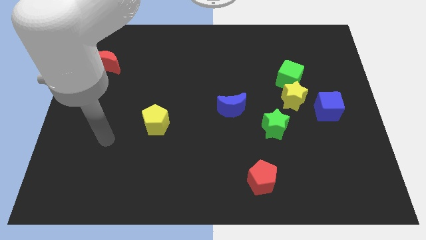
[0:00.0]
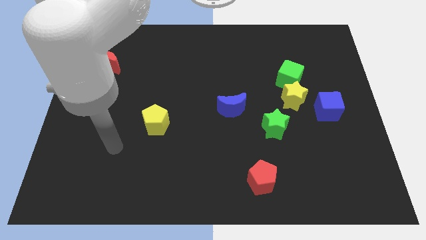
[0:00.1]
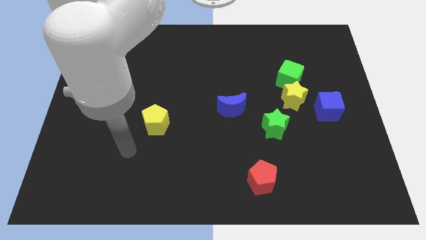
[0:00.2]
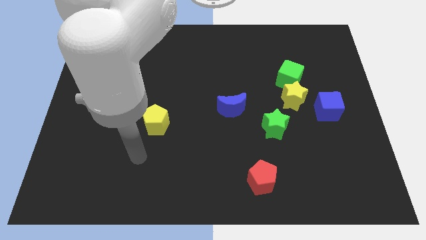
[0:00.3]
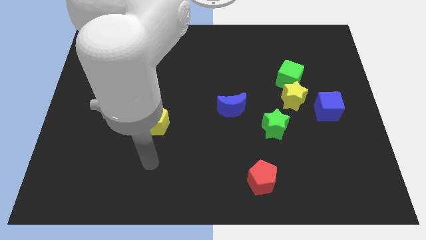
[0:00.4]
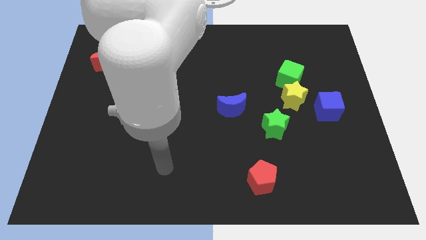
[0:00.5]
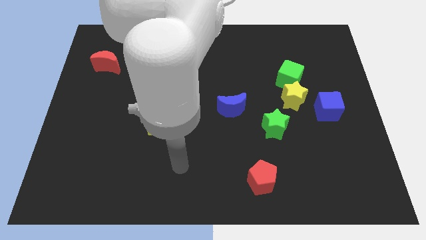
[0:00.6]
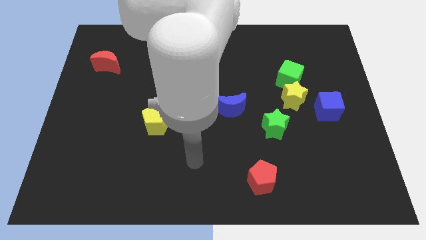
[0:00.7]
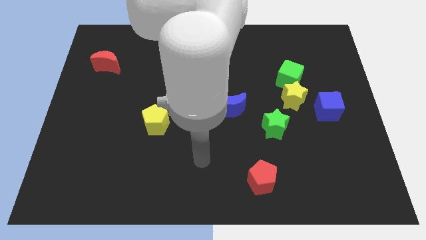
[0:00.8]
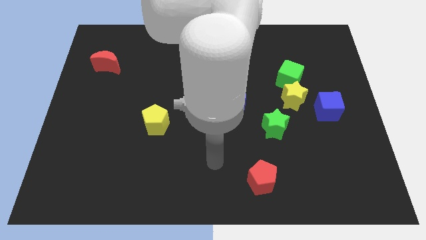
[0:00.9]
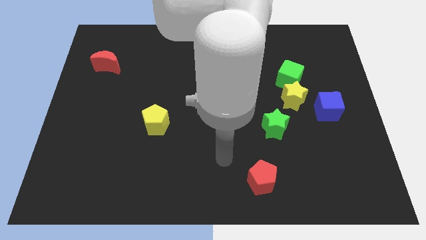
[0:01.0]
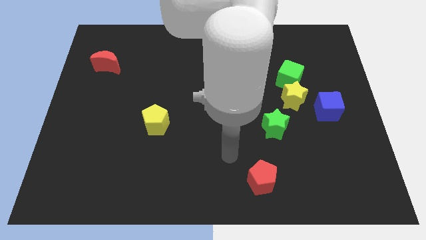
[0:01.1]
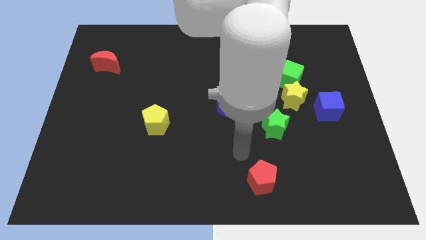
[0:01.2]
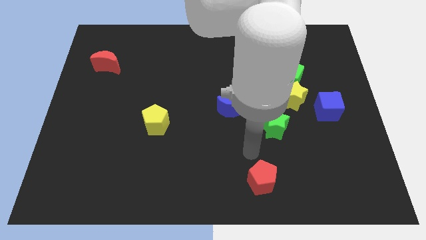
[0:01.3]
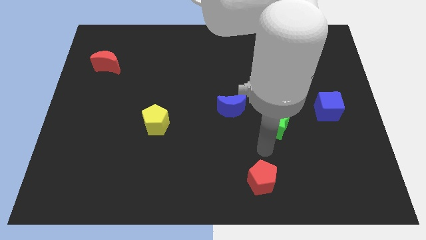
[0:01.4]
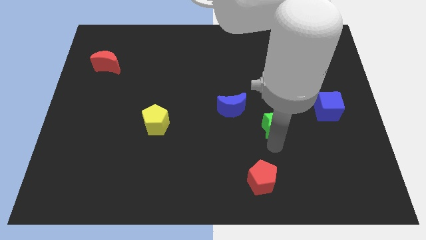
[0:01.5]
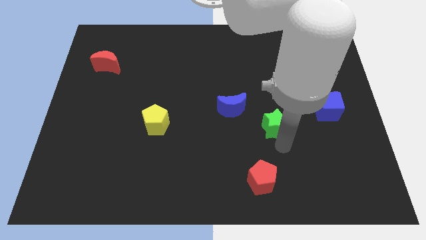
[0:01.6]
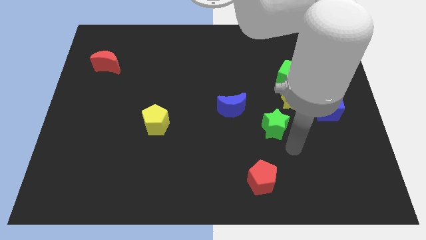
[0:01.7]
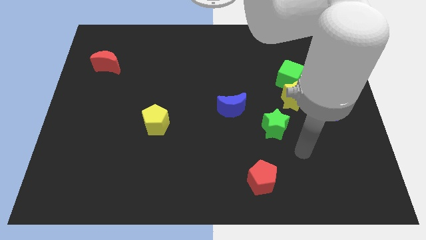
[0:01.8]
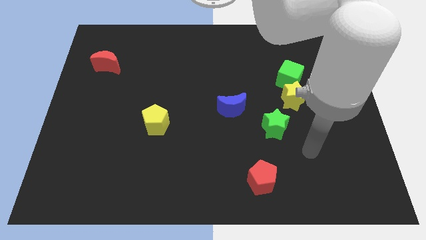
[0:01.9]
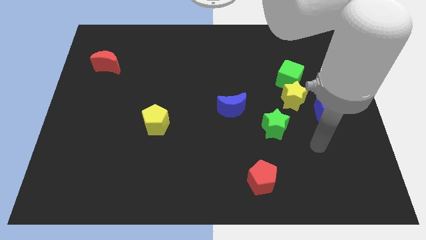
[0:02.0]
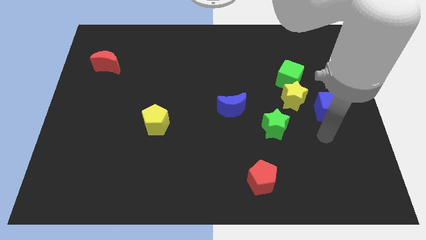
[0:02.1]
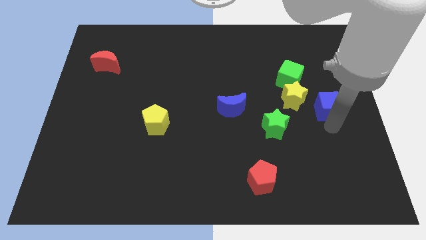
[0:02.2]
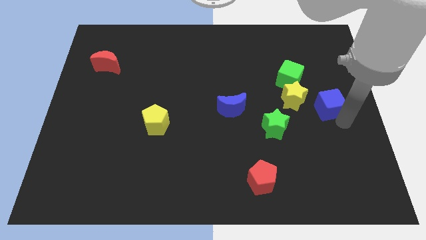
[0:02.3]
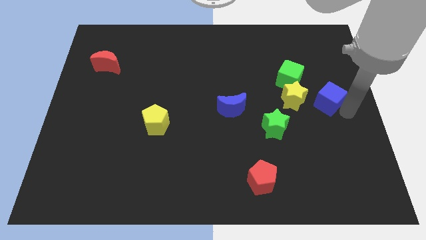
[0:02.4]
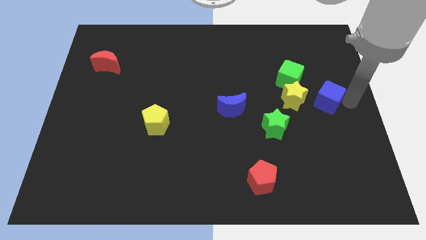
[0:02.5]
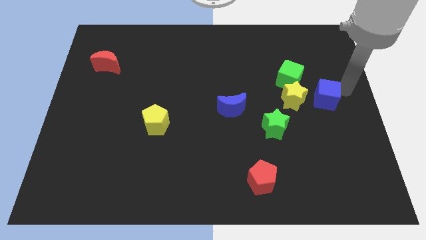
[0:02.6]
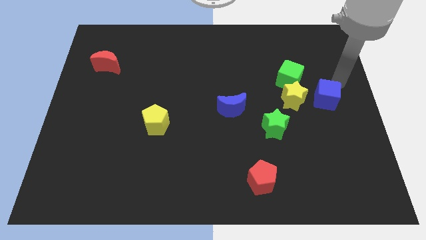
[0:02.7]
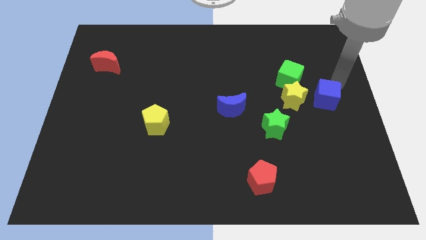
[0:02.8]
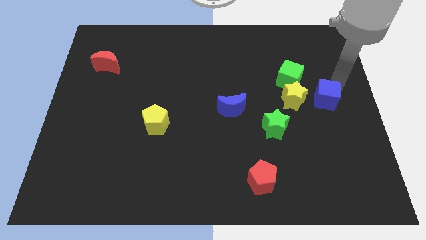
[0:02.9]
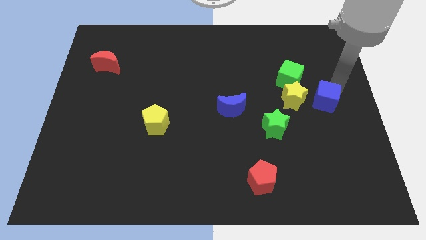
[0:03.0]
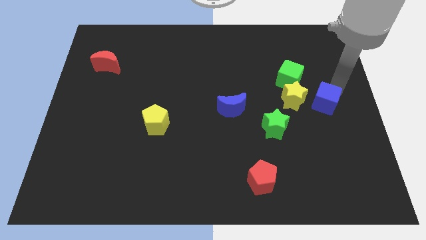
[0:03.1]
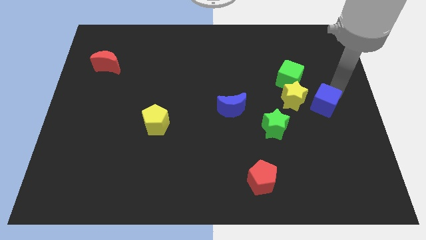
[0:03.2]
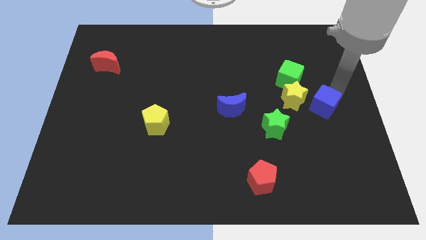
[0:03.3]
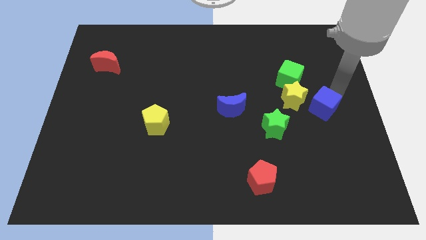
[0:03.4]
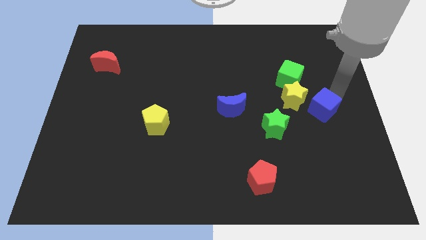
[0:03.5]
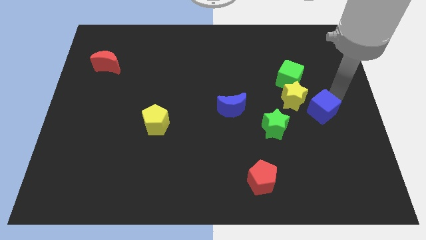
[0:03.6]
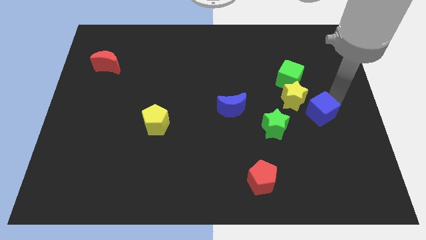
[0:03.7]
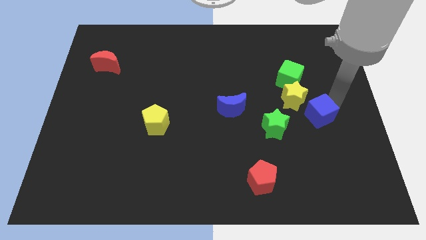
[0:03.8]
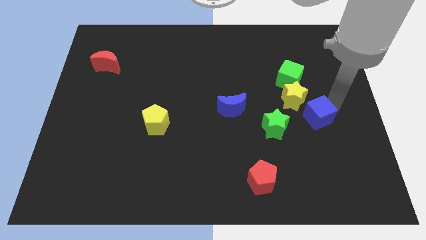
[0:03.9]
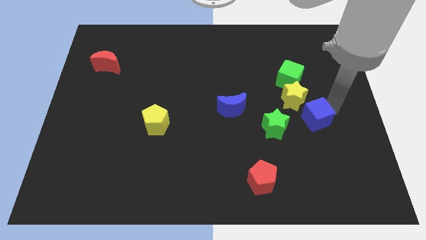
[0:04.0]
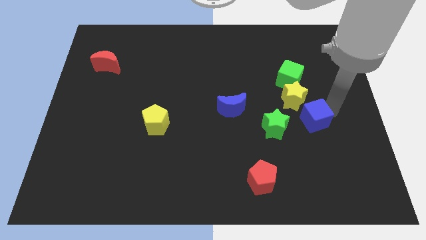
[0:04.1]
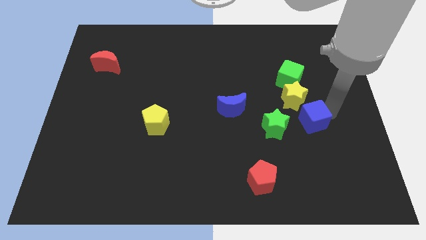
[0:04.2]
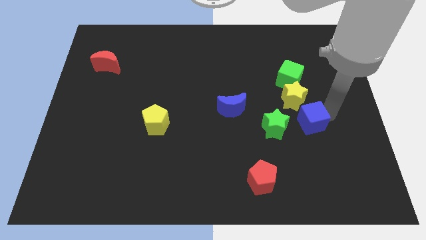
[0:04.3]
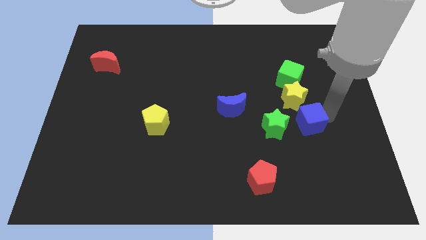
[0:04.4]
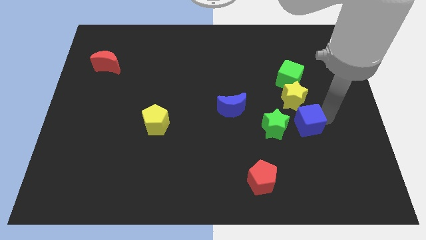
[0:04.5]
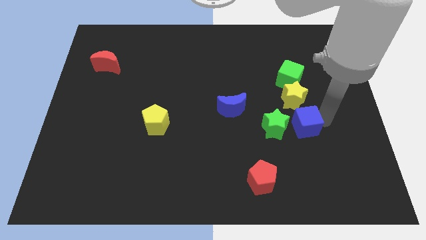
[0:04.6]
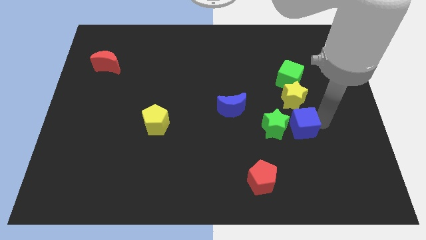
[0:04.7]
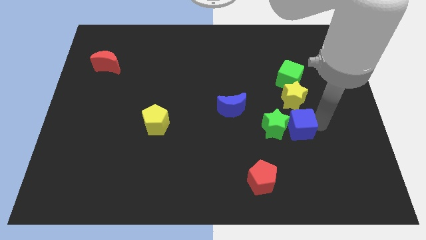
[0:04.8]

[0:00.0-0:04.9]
move the blue cube towards the green star

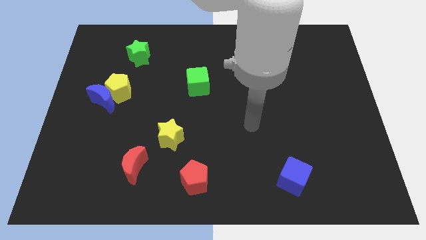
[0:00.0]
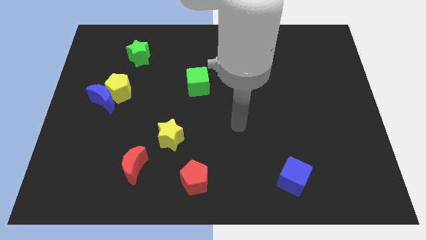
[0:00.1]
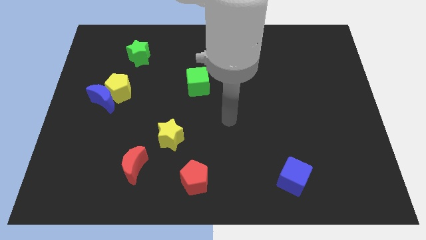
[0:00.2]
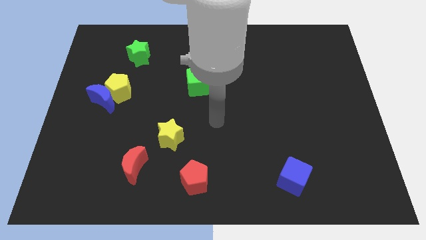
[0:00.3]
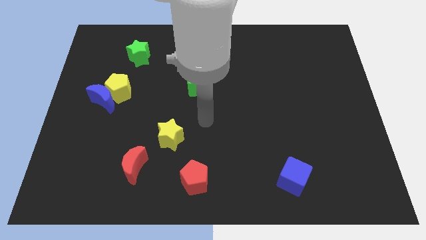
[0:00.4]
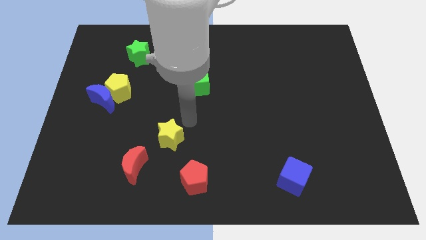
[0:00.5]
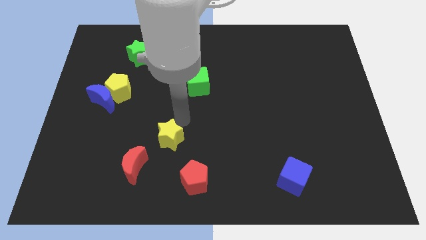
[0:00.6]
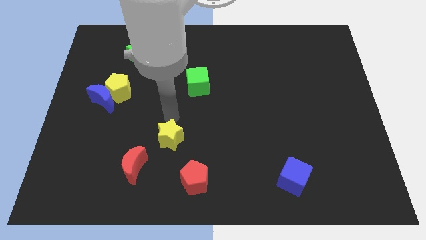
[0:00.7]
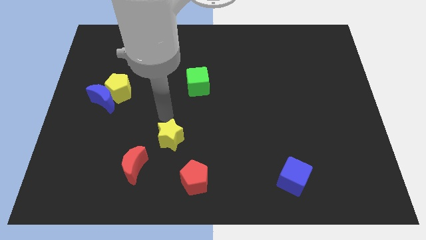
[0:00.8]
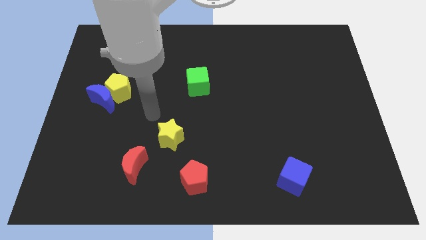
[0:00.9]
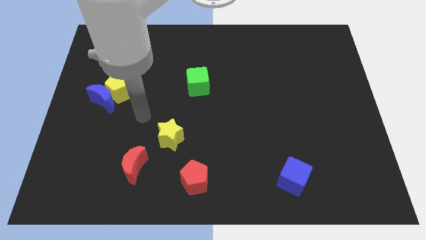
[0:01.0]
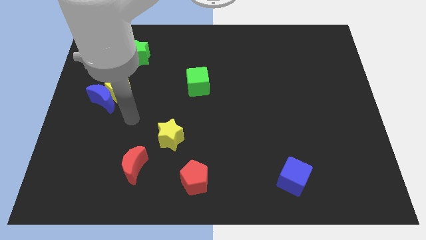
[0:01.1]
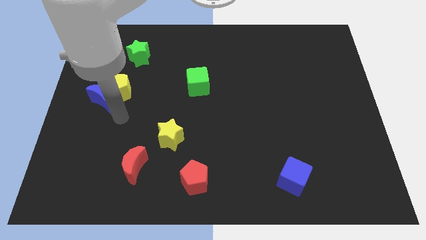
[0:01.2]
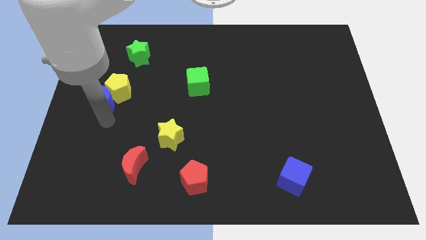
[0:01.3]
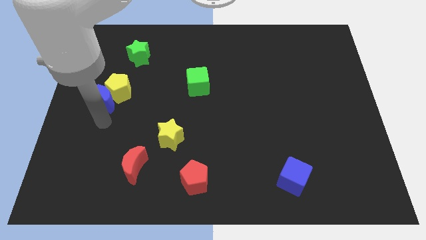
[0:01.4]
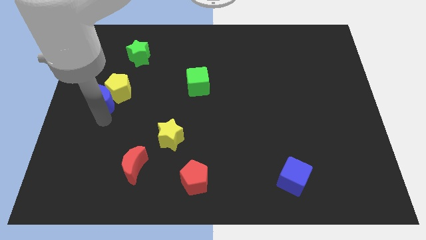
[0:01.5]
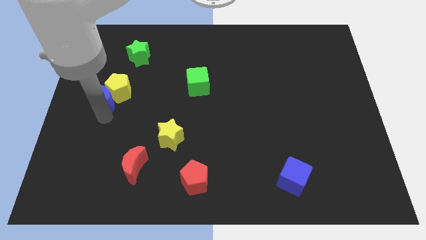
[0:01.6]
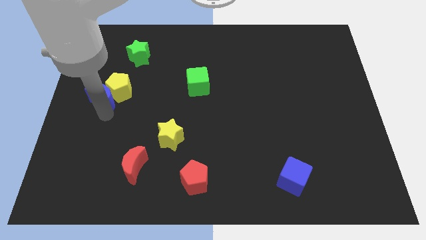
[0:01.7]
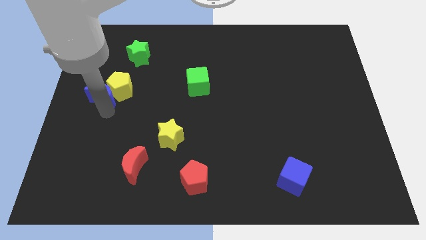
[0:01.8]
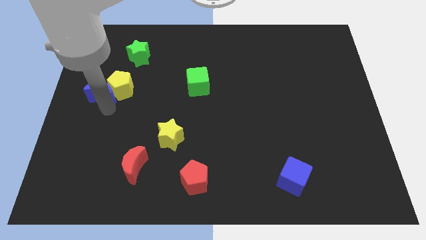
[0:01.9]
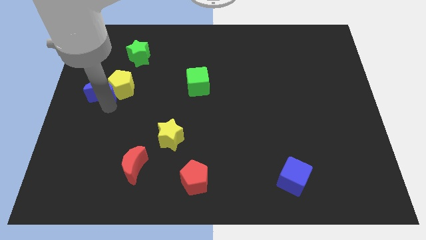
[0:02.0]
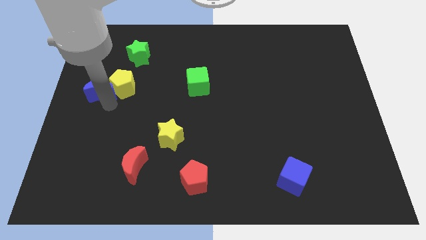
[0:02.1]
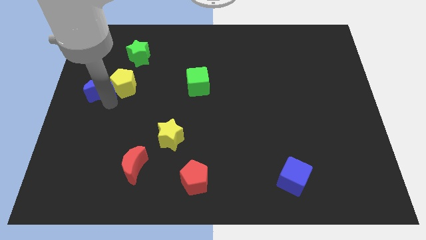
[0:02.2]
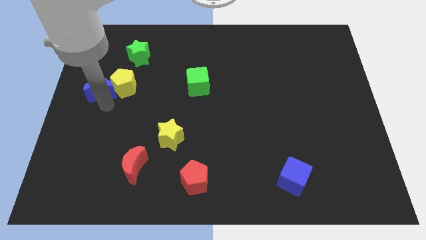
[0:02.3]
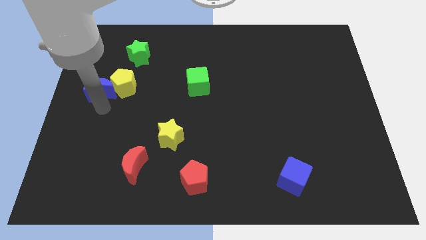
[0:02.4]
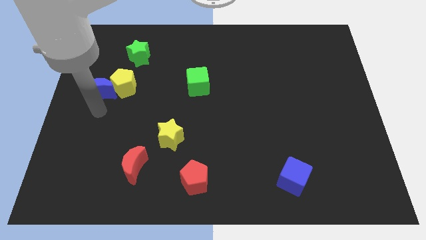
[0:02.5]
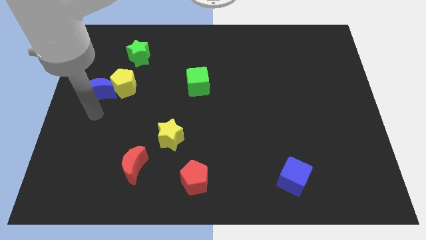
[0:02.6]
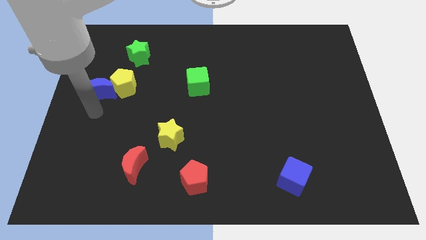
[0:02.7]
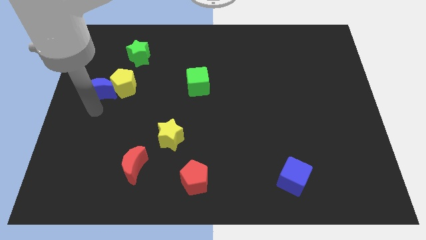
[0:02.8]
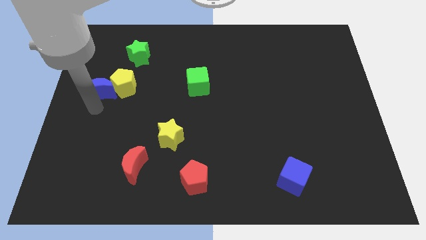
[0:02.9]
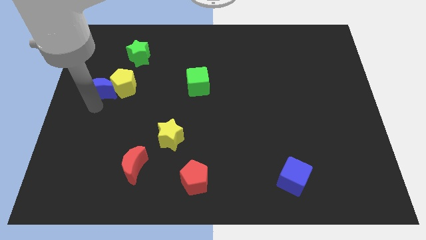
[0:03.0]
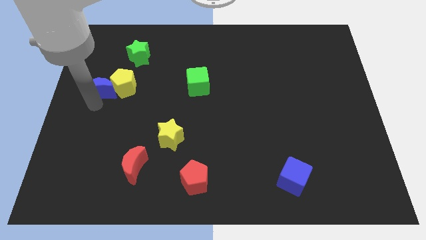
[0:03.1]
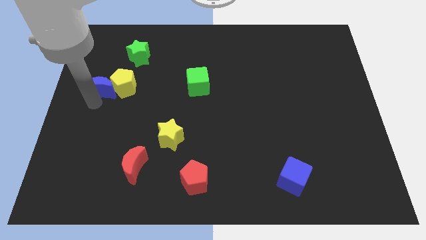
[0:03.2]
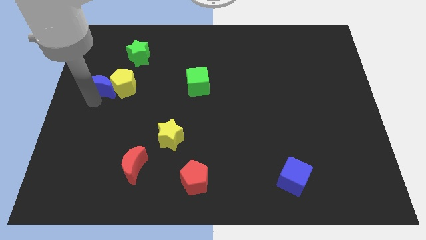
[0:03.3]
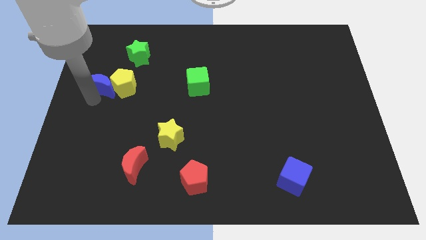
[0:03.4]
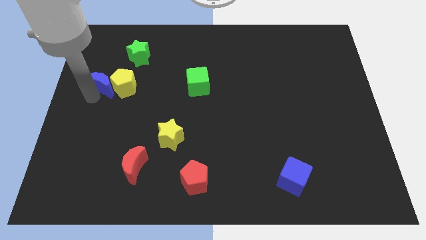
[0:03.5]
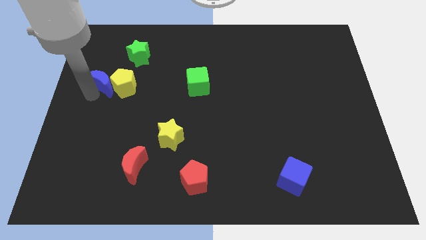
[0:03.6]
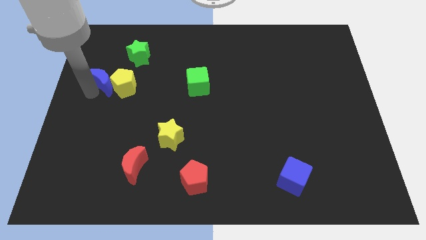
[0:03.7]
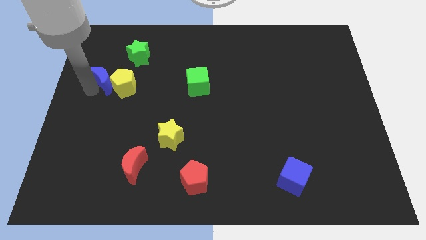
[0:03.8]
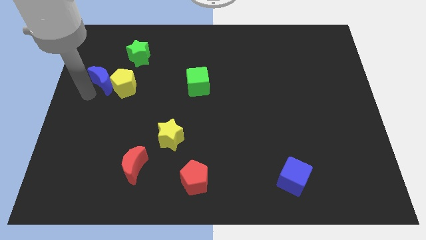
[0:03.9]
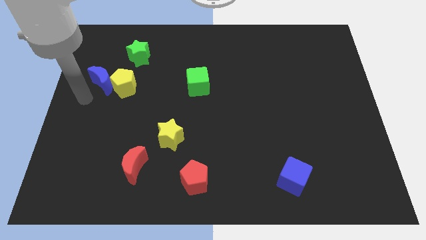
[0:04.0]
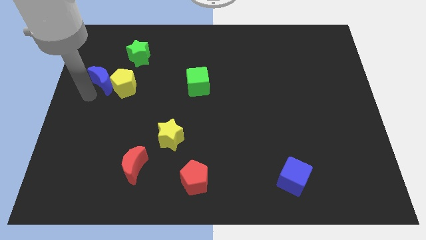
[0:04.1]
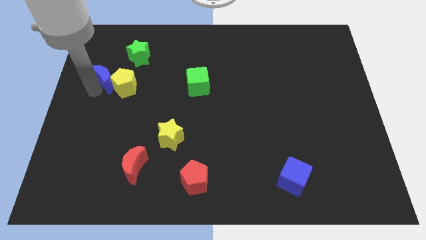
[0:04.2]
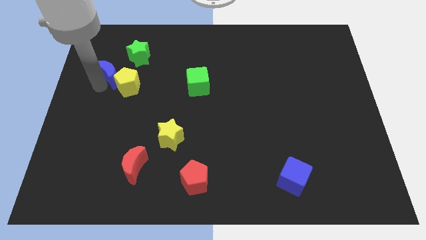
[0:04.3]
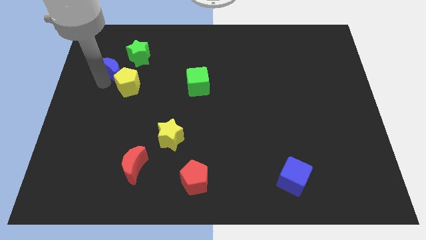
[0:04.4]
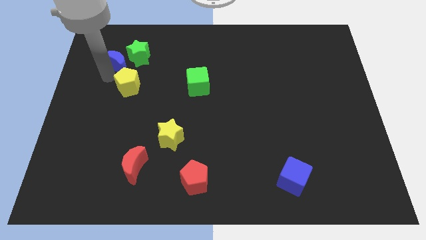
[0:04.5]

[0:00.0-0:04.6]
put the blue moon next to the green star
